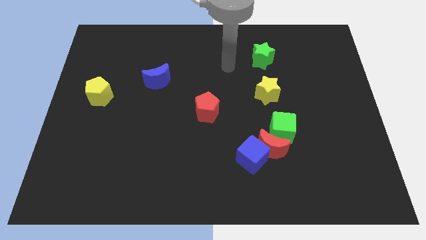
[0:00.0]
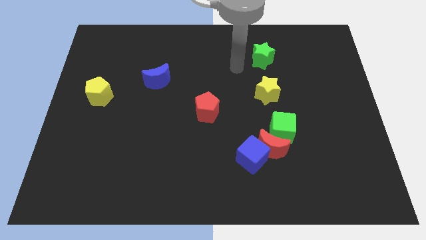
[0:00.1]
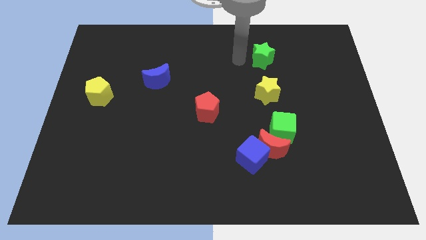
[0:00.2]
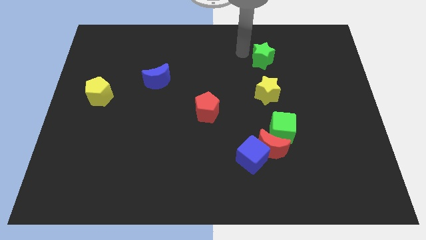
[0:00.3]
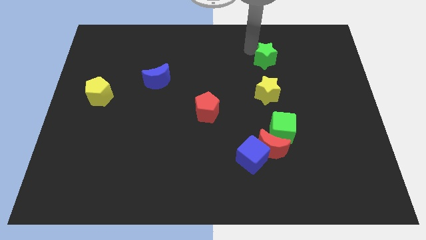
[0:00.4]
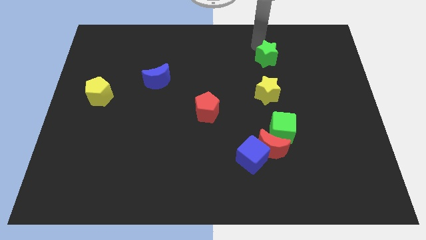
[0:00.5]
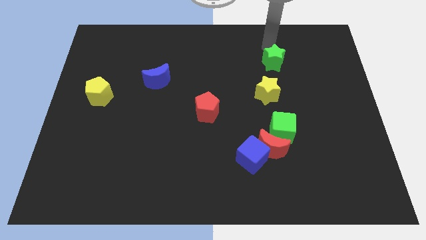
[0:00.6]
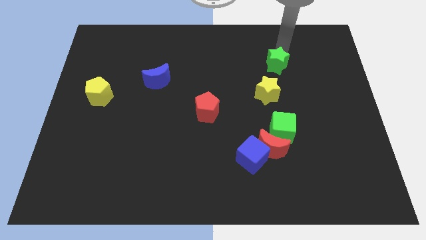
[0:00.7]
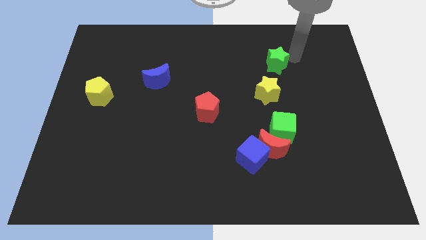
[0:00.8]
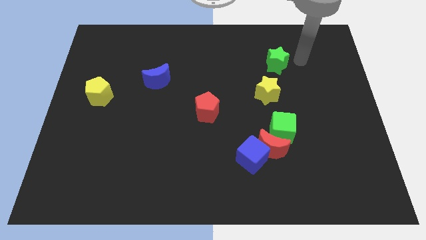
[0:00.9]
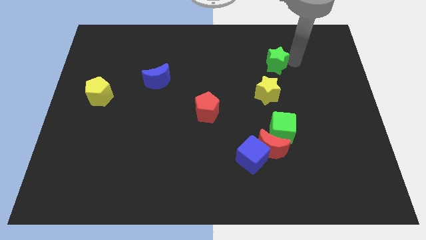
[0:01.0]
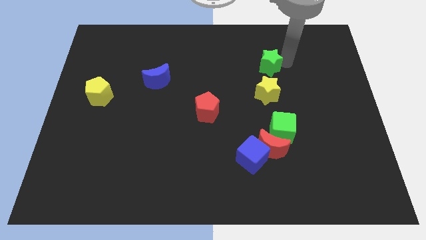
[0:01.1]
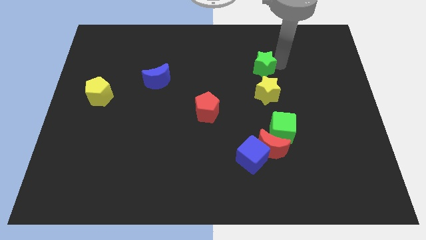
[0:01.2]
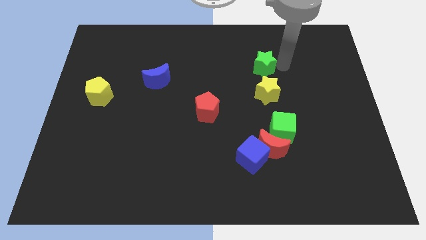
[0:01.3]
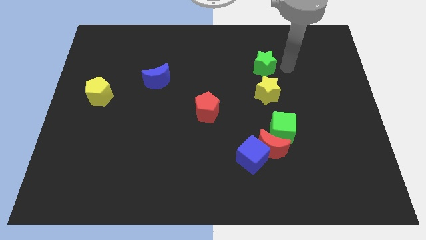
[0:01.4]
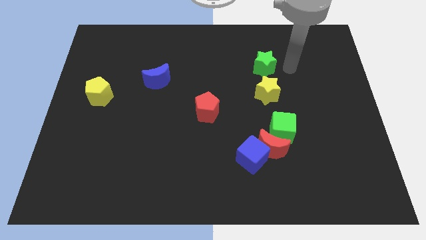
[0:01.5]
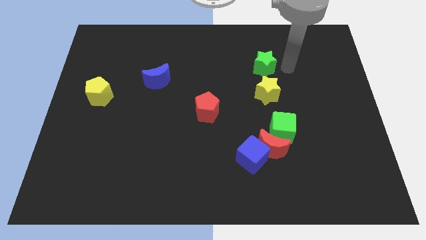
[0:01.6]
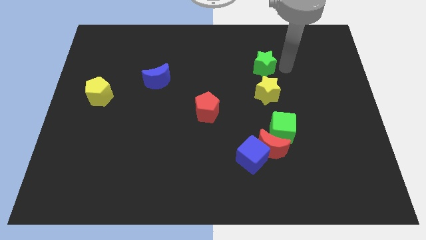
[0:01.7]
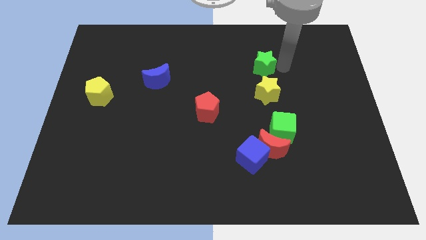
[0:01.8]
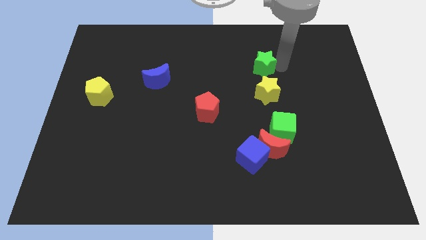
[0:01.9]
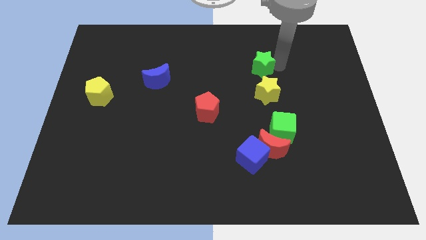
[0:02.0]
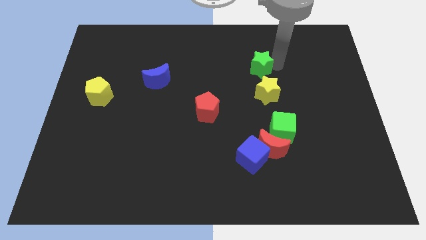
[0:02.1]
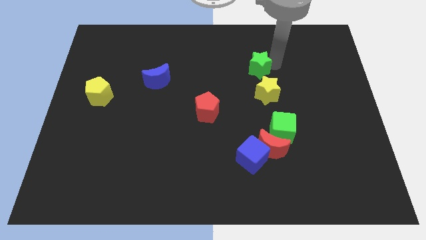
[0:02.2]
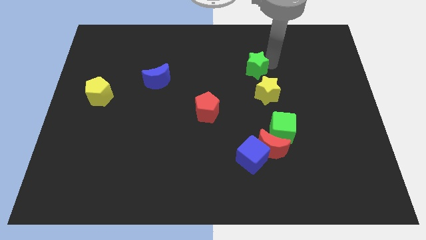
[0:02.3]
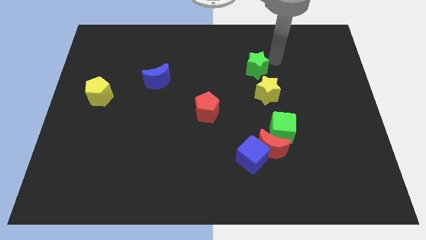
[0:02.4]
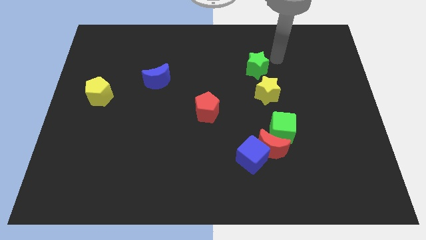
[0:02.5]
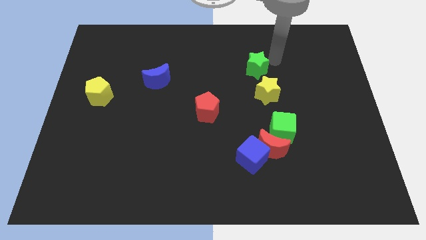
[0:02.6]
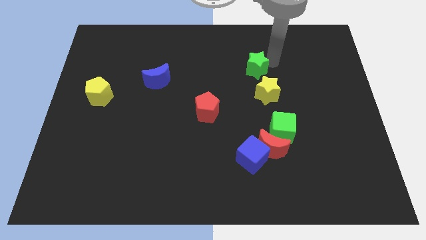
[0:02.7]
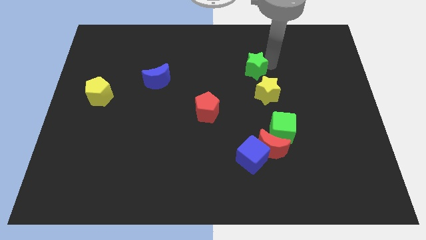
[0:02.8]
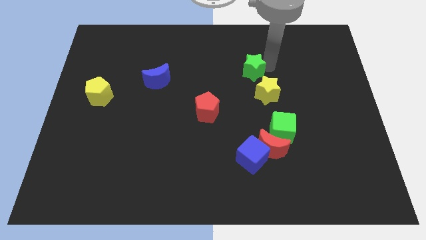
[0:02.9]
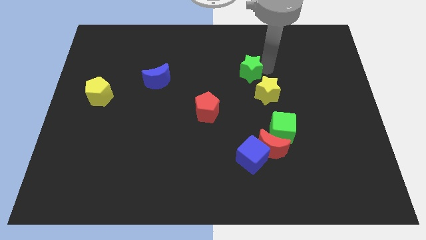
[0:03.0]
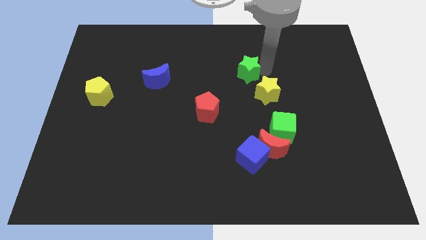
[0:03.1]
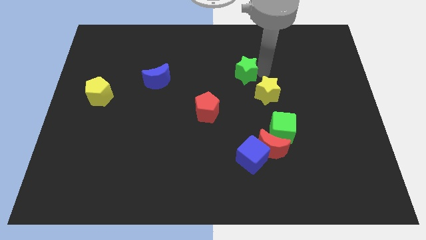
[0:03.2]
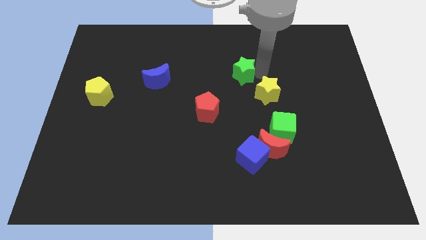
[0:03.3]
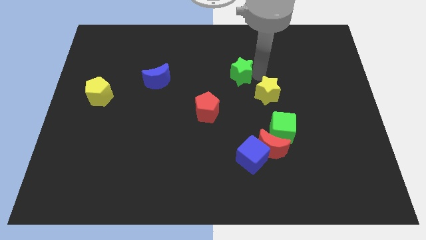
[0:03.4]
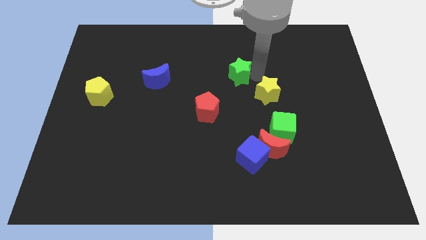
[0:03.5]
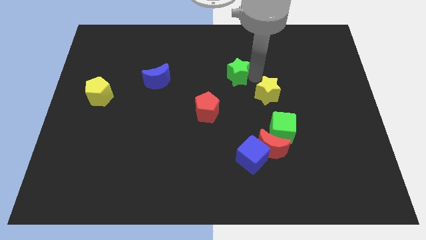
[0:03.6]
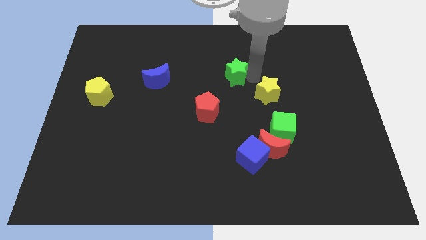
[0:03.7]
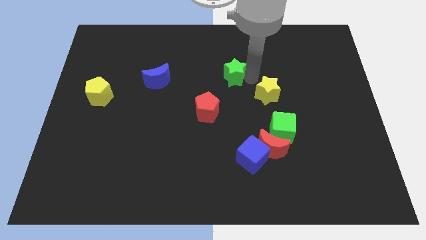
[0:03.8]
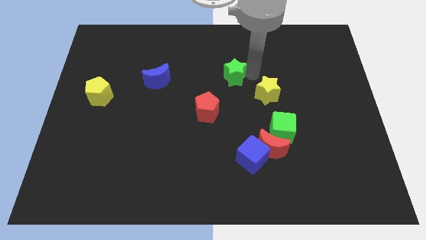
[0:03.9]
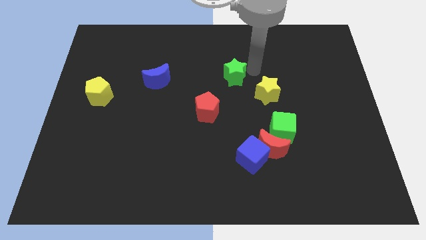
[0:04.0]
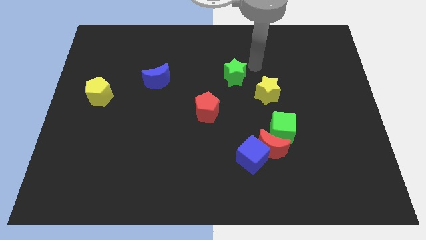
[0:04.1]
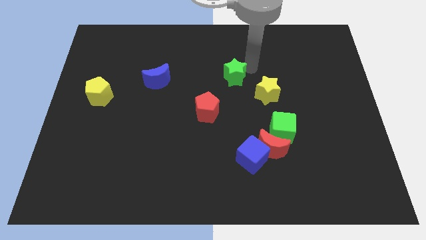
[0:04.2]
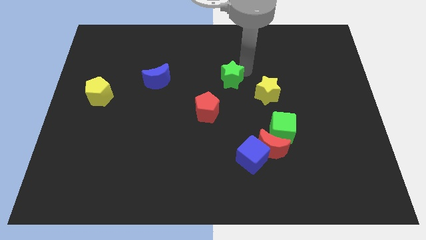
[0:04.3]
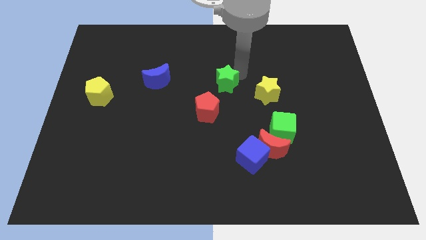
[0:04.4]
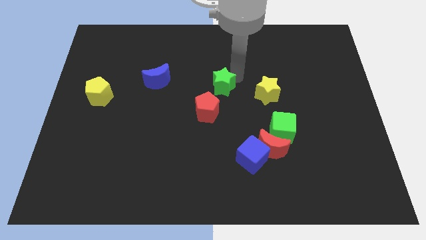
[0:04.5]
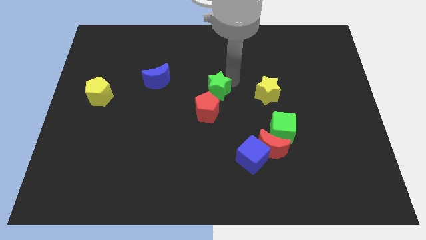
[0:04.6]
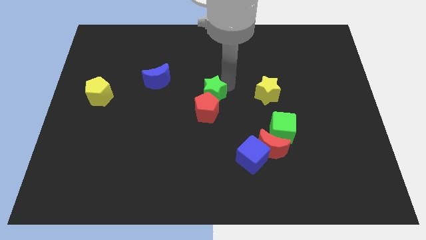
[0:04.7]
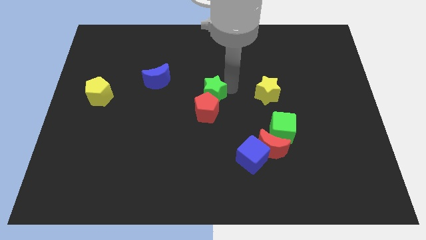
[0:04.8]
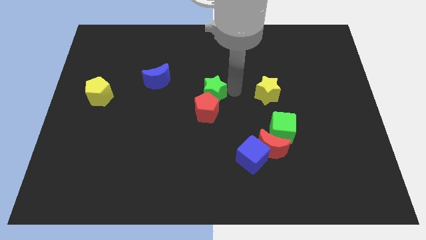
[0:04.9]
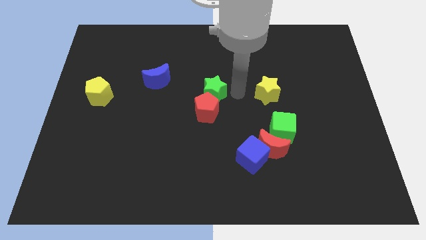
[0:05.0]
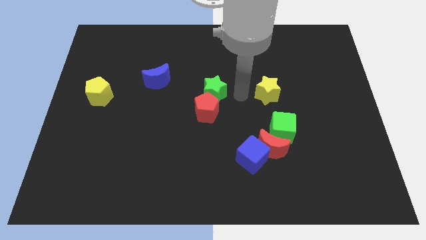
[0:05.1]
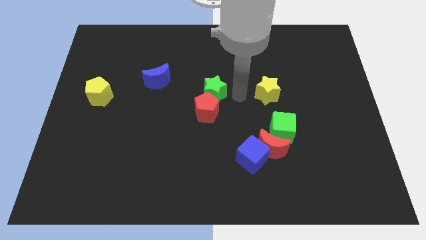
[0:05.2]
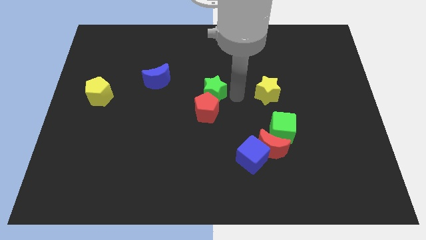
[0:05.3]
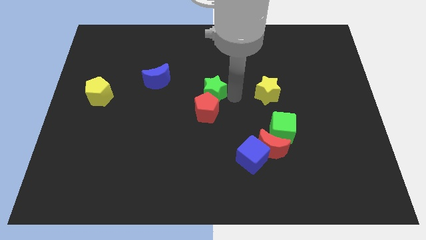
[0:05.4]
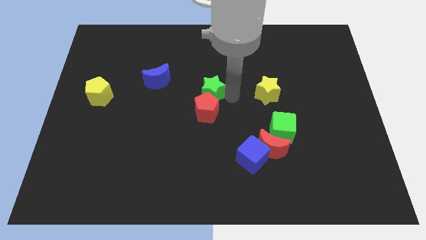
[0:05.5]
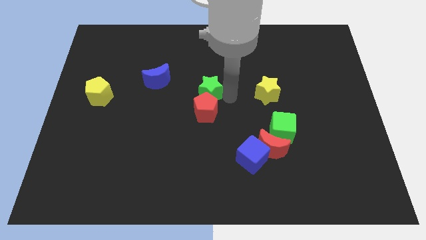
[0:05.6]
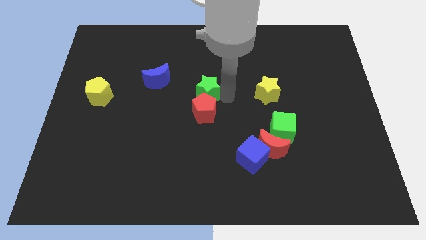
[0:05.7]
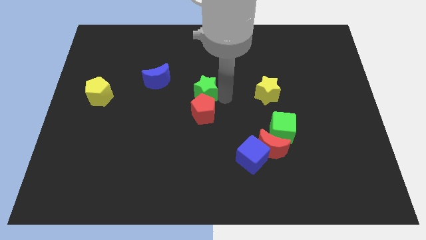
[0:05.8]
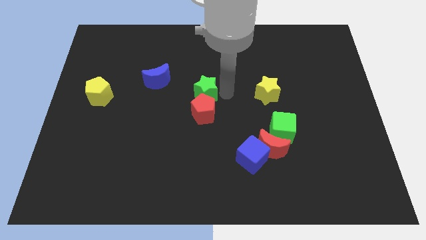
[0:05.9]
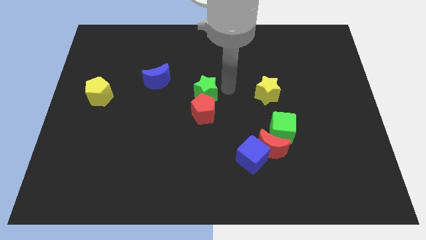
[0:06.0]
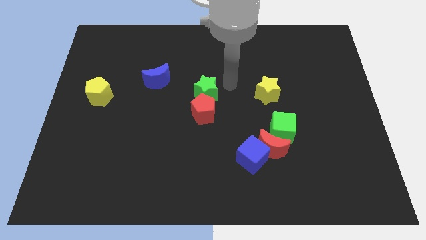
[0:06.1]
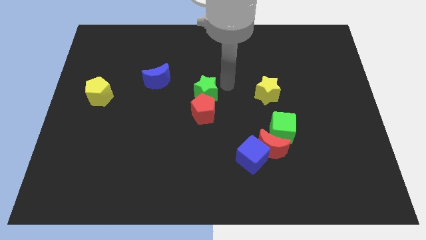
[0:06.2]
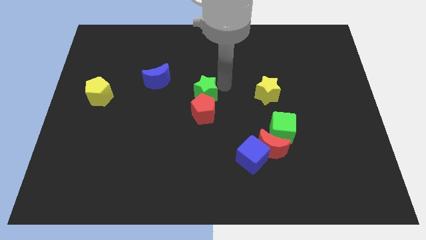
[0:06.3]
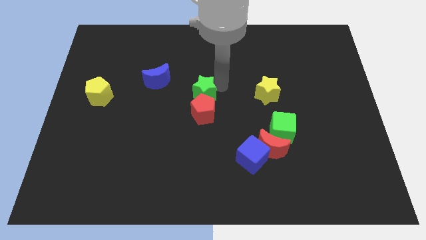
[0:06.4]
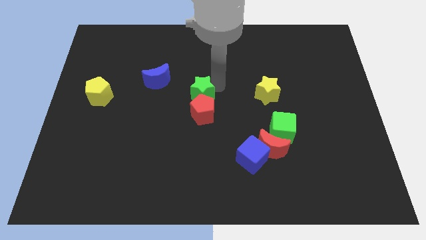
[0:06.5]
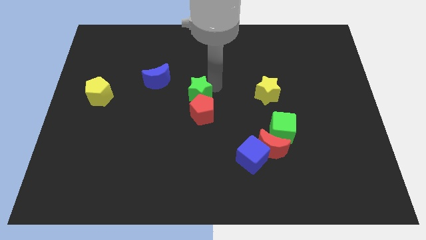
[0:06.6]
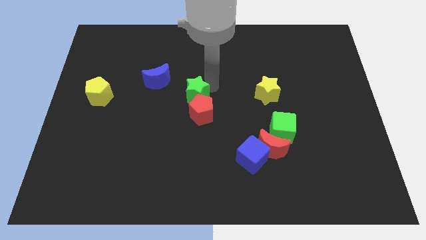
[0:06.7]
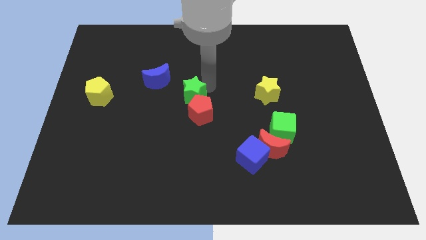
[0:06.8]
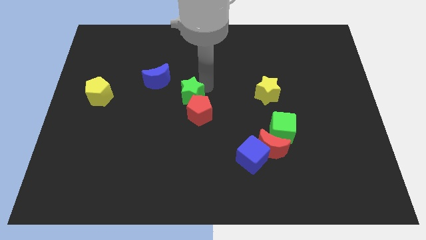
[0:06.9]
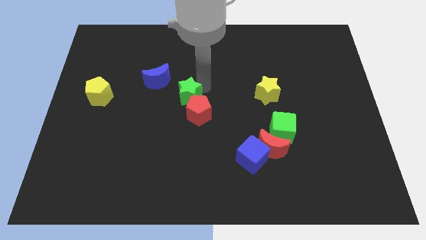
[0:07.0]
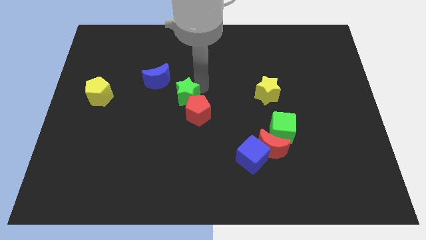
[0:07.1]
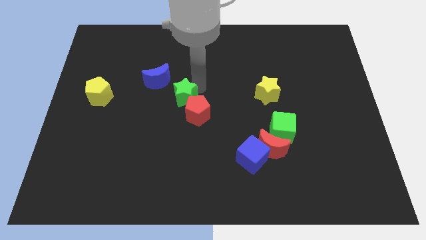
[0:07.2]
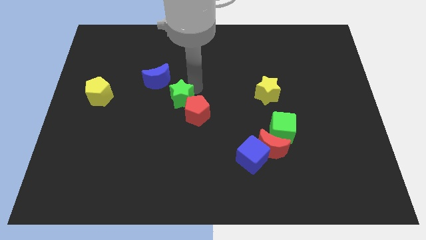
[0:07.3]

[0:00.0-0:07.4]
push the green star just left of the red pentagon

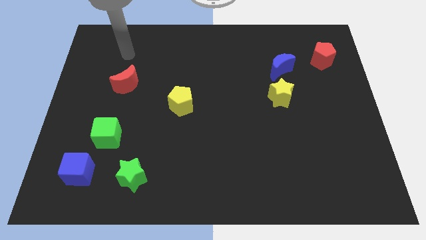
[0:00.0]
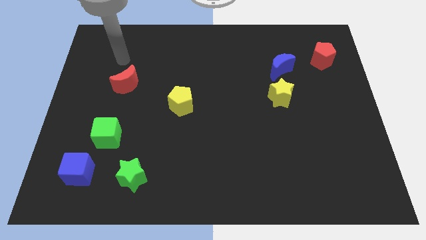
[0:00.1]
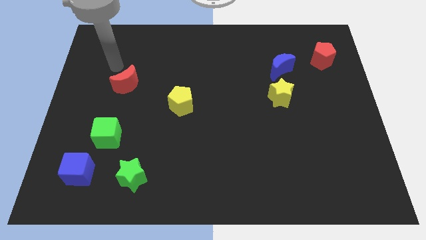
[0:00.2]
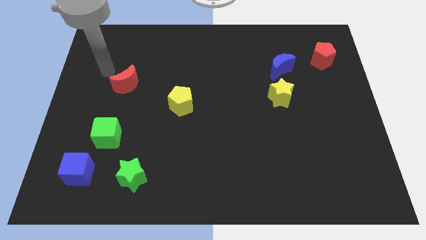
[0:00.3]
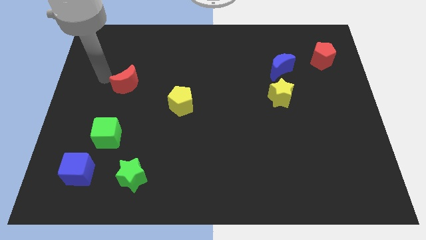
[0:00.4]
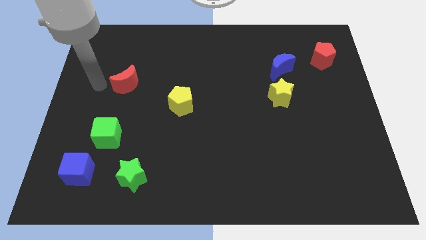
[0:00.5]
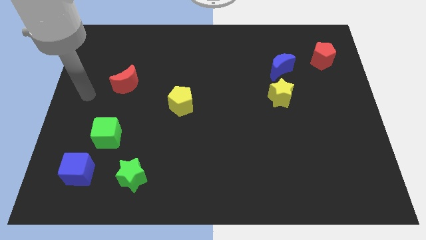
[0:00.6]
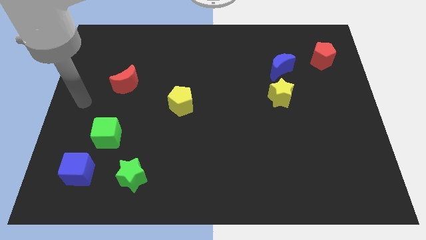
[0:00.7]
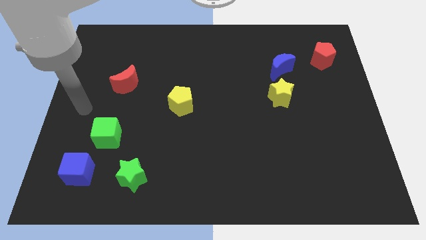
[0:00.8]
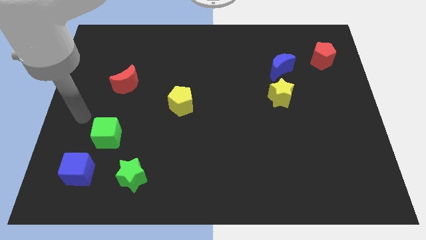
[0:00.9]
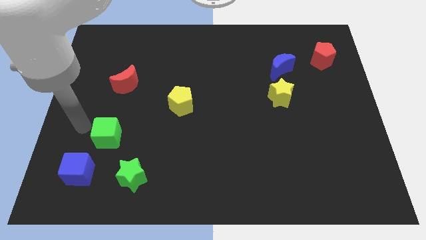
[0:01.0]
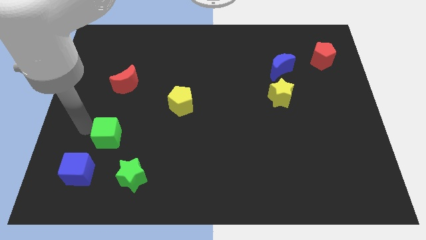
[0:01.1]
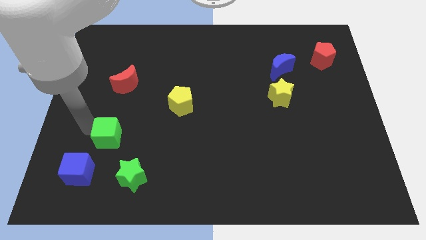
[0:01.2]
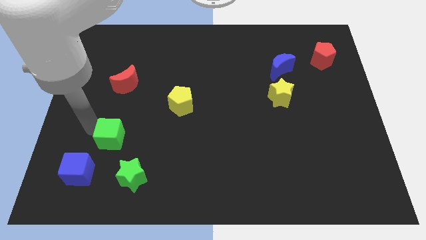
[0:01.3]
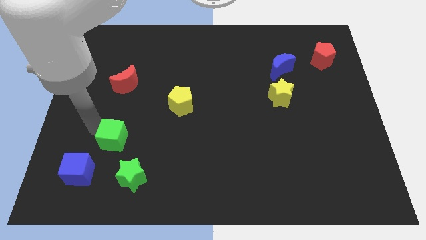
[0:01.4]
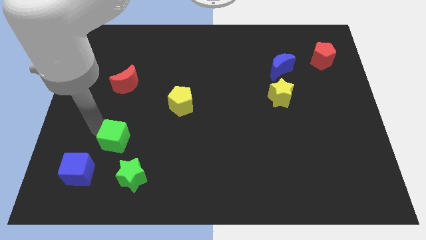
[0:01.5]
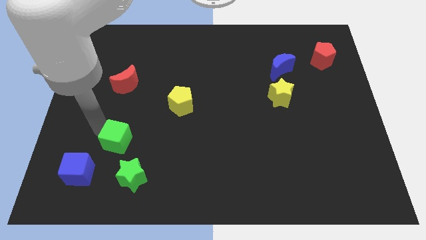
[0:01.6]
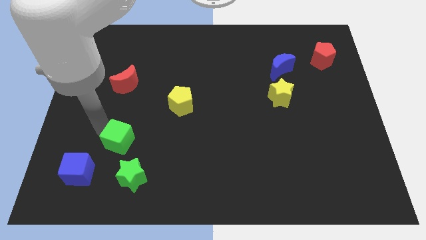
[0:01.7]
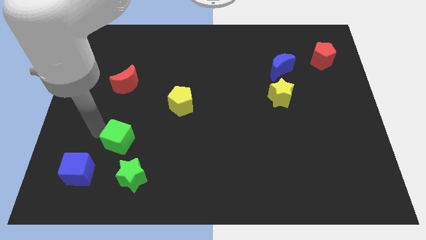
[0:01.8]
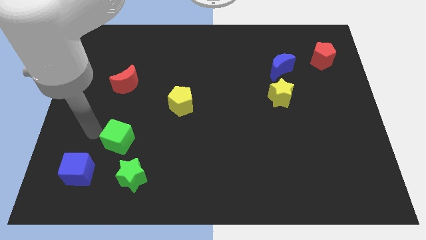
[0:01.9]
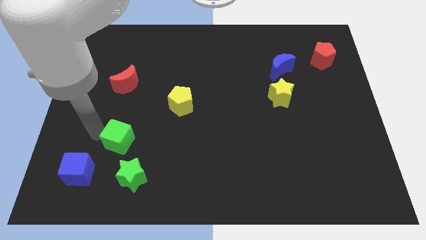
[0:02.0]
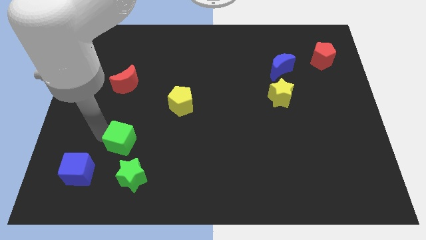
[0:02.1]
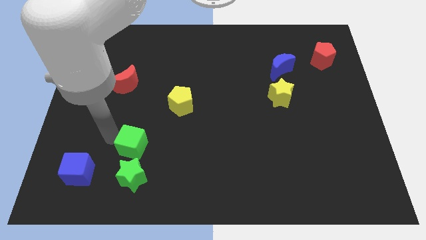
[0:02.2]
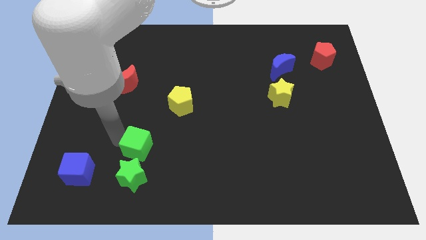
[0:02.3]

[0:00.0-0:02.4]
move the green cube to the top right side of the green star
